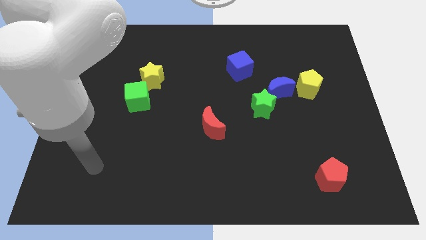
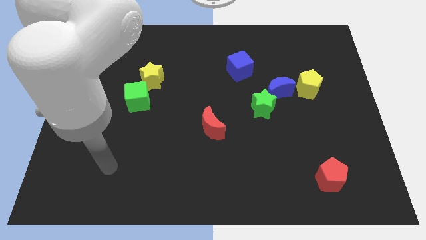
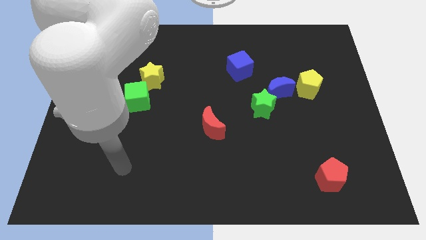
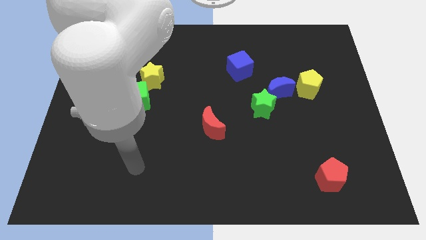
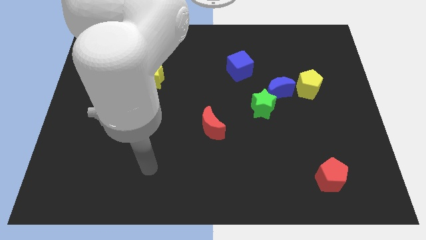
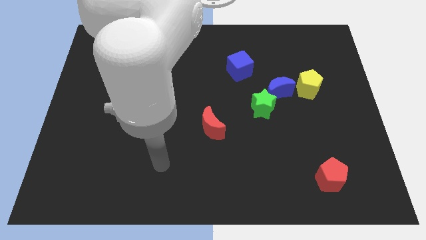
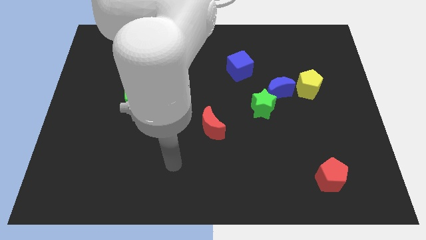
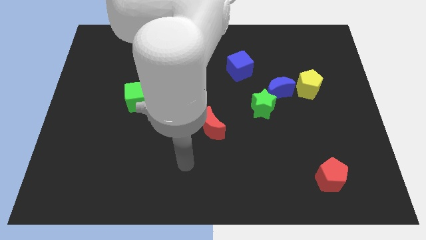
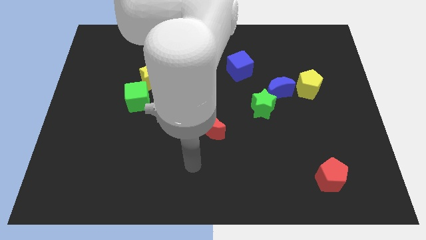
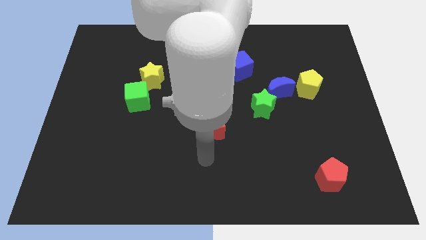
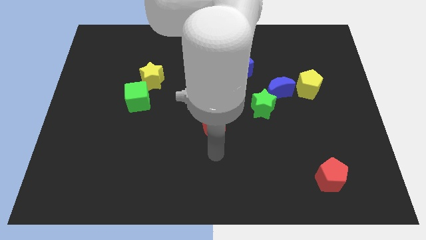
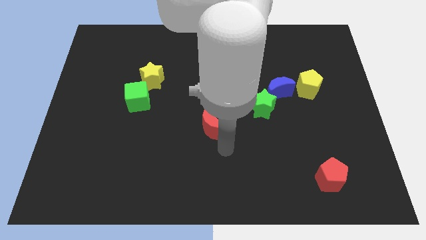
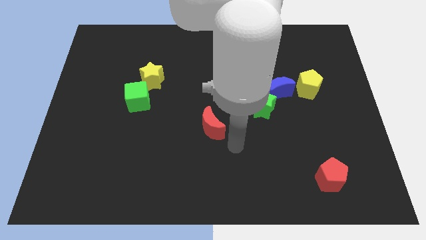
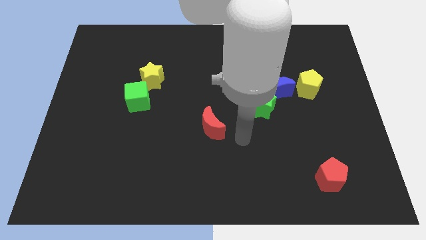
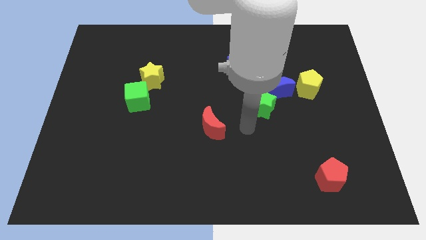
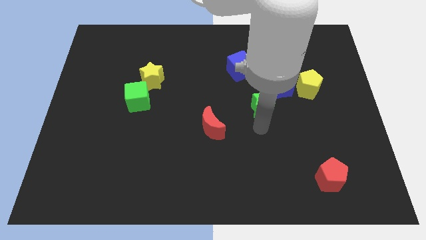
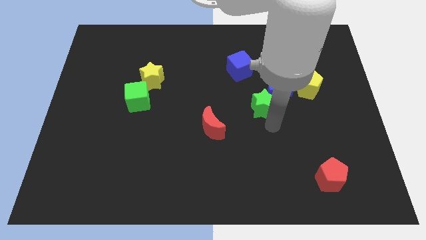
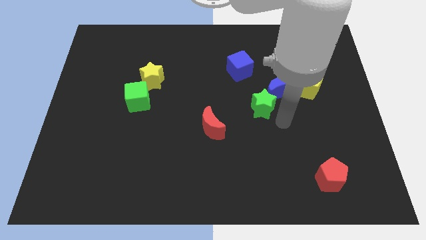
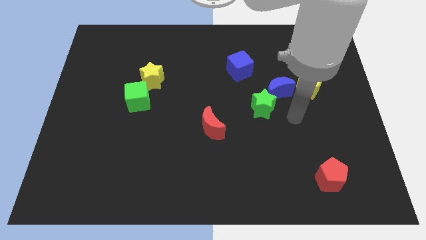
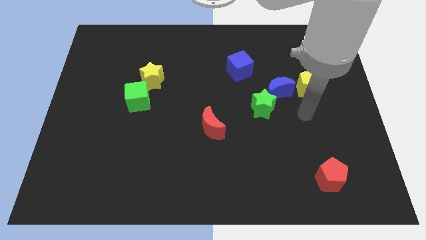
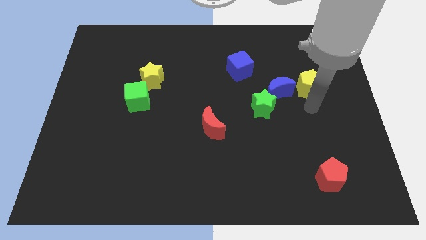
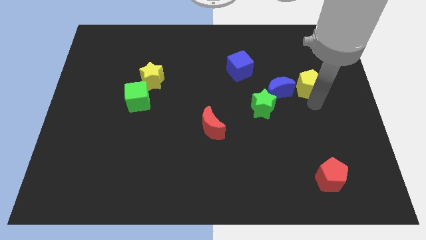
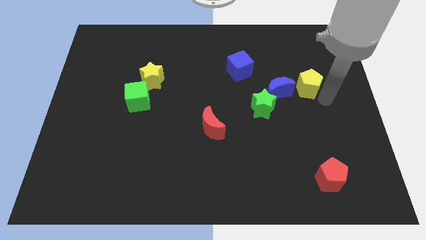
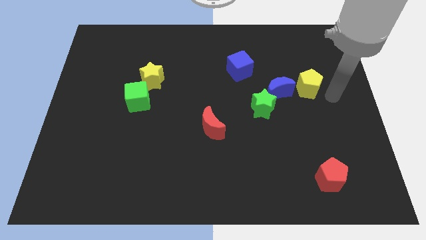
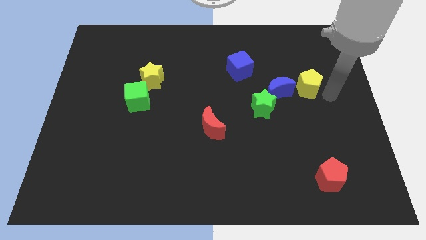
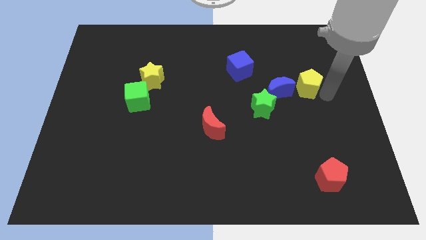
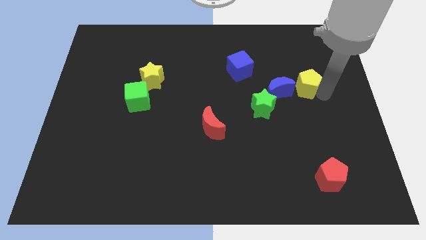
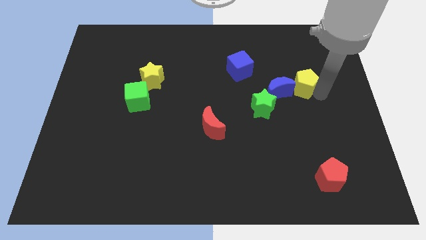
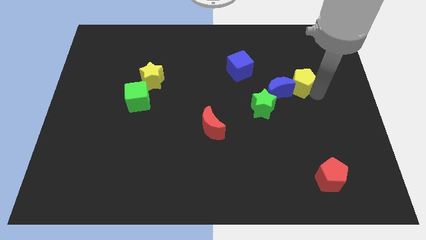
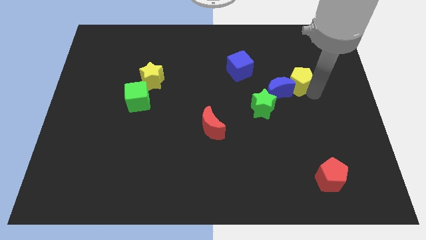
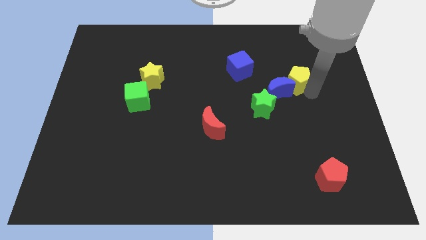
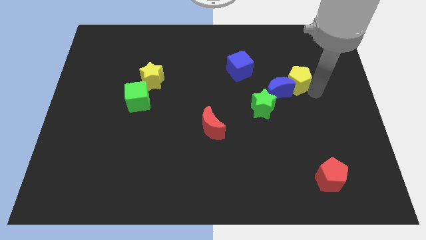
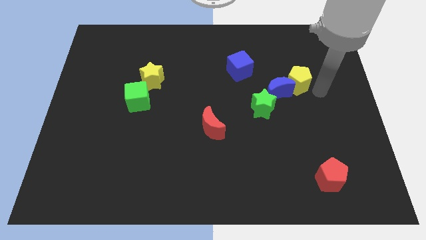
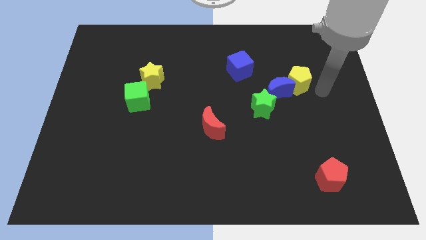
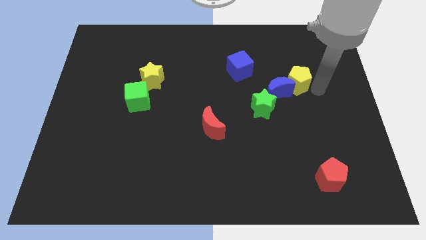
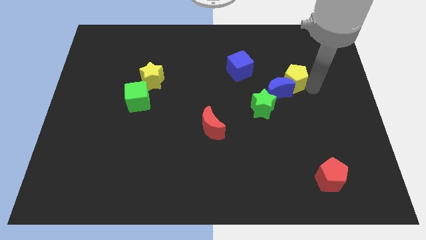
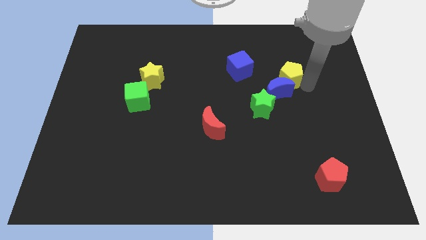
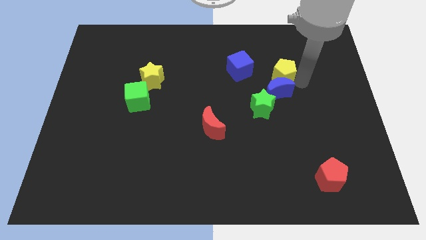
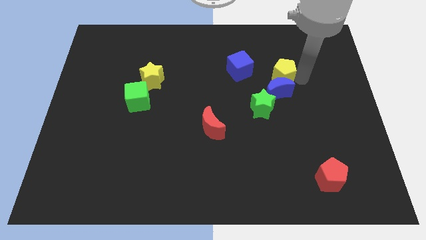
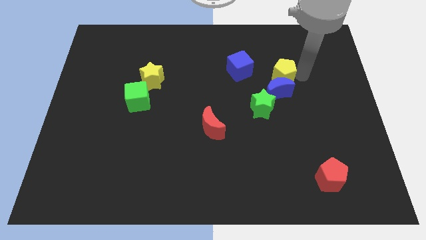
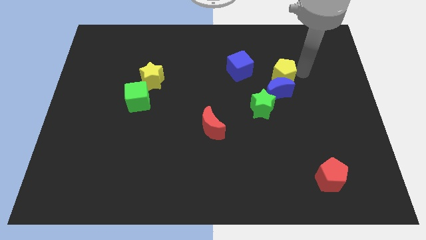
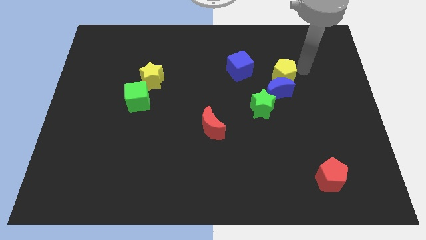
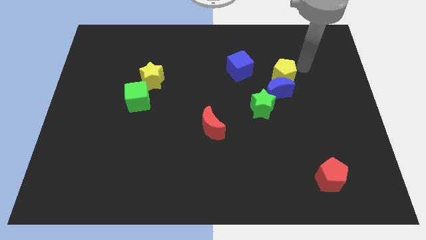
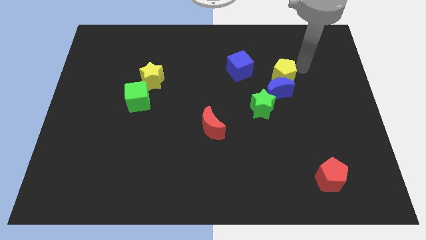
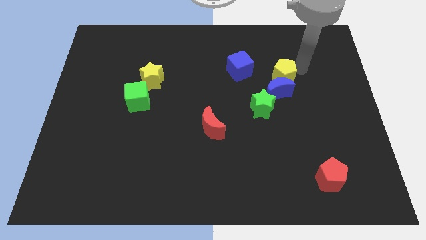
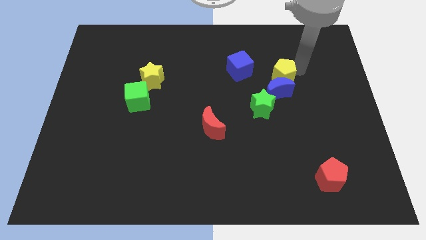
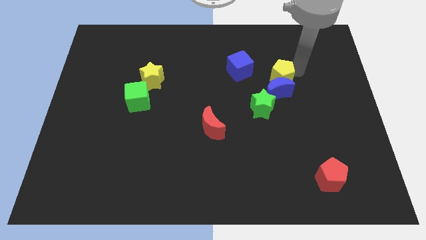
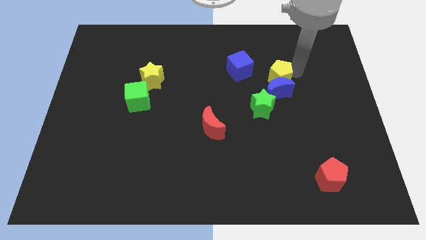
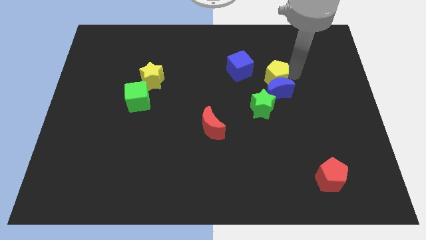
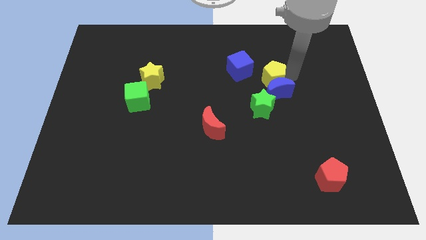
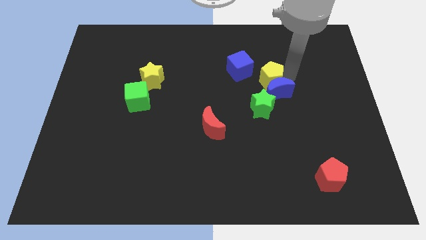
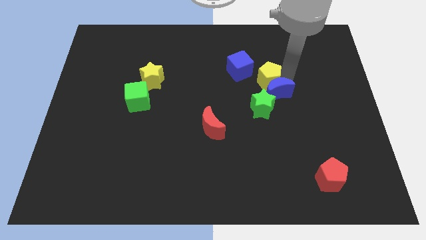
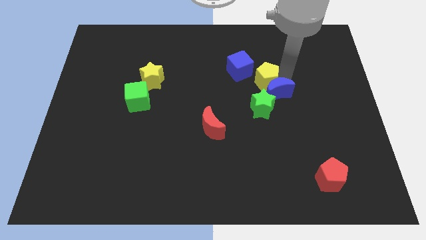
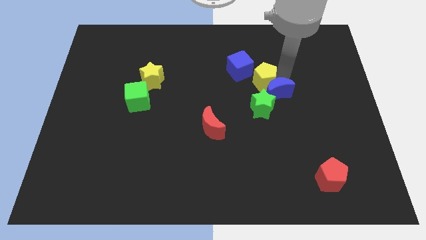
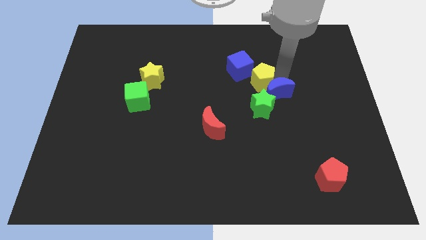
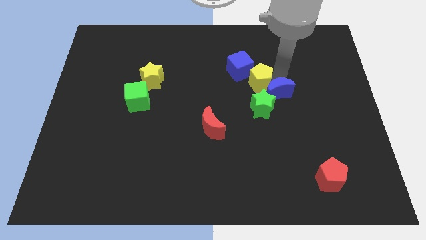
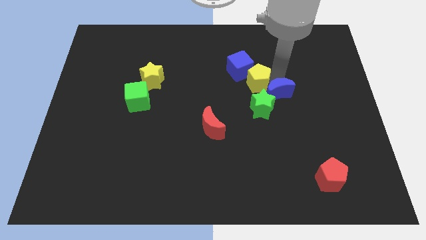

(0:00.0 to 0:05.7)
move the yellow pentagon to the middle
